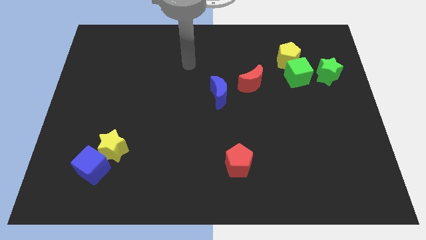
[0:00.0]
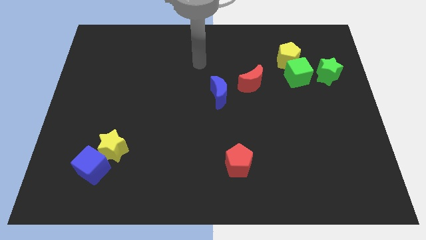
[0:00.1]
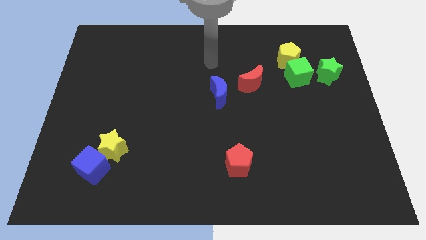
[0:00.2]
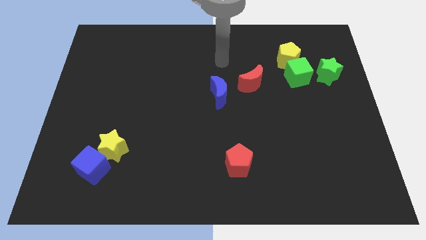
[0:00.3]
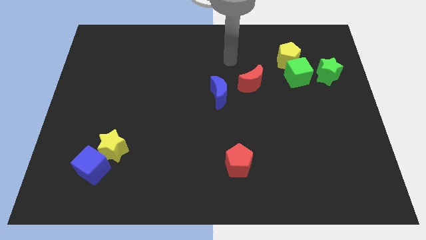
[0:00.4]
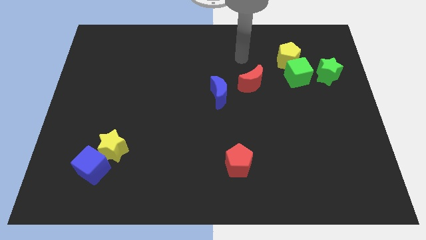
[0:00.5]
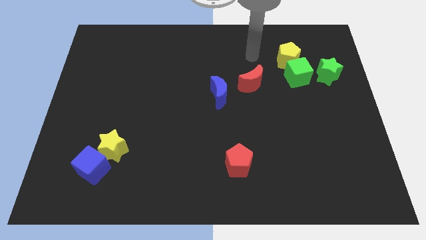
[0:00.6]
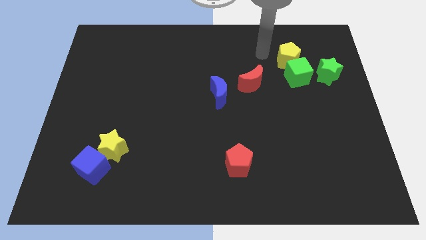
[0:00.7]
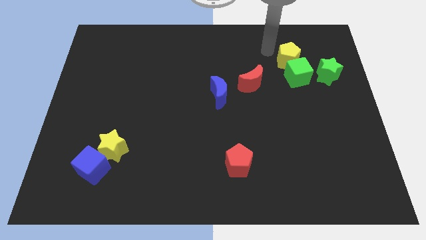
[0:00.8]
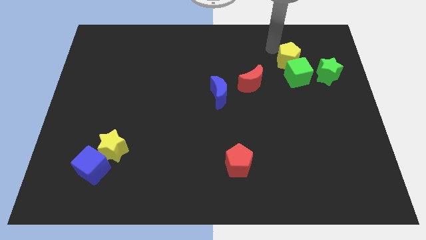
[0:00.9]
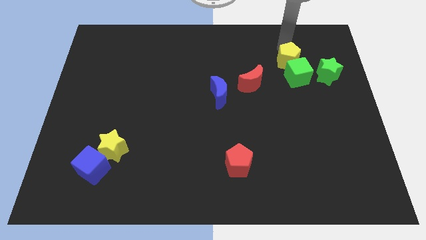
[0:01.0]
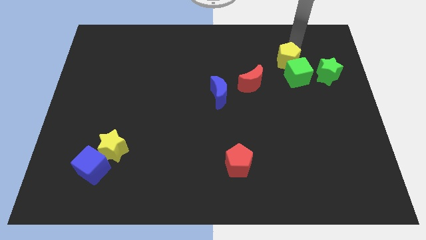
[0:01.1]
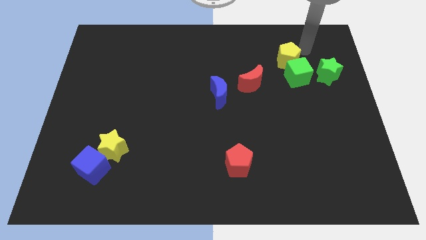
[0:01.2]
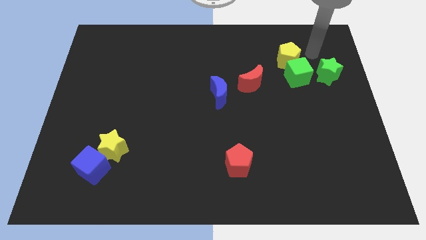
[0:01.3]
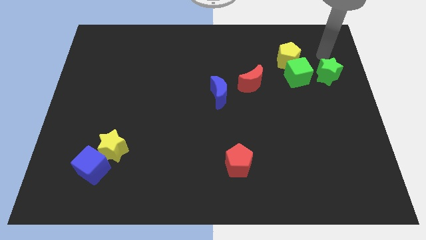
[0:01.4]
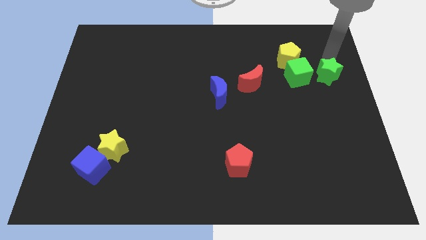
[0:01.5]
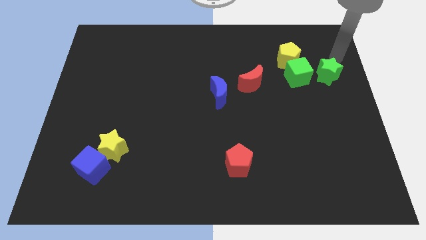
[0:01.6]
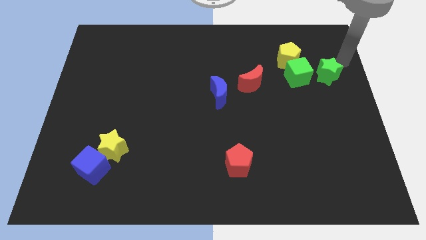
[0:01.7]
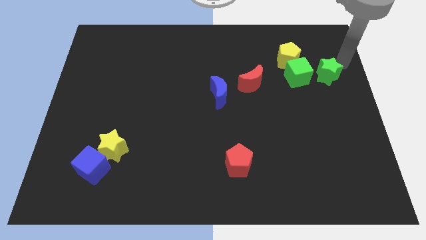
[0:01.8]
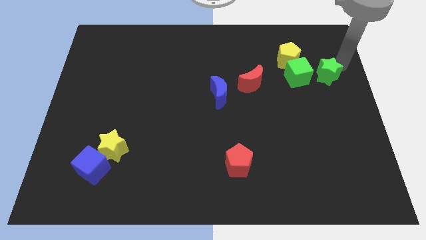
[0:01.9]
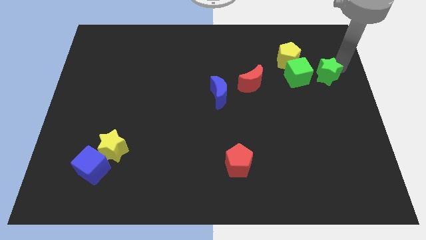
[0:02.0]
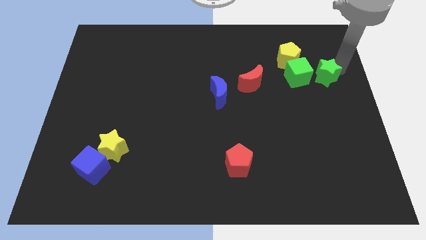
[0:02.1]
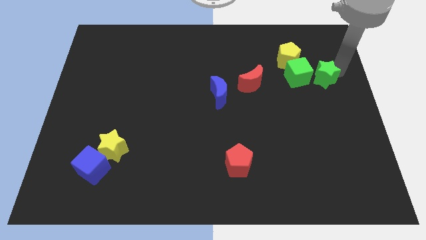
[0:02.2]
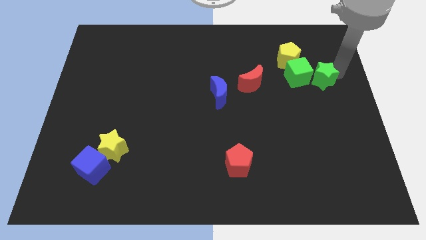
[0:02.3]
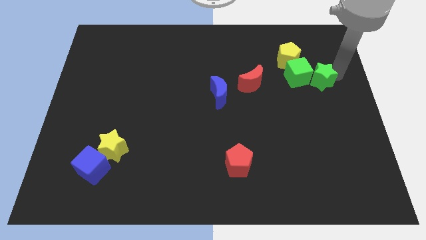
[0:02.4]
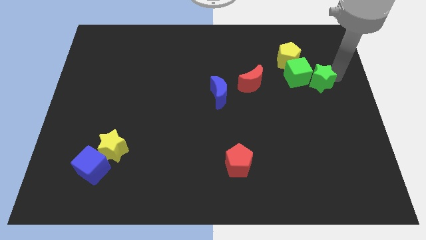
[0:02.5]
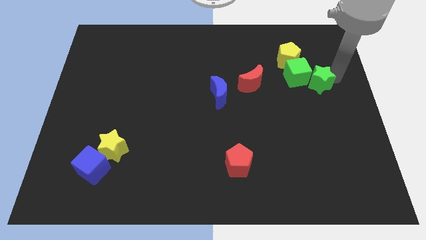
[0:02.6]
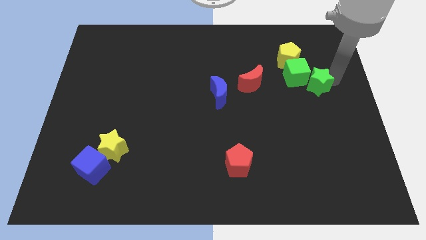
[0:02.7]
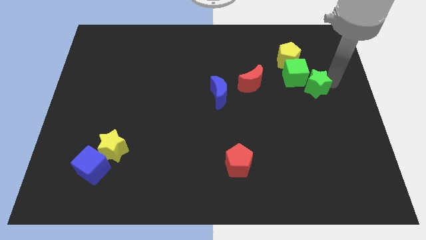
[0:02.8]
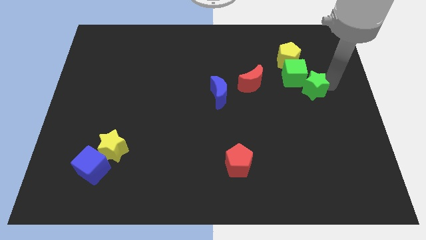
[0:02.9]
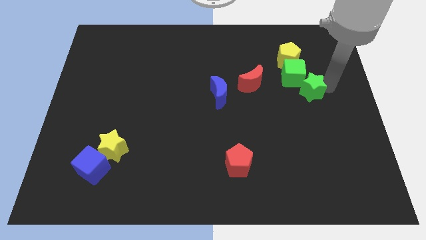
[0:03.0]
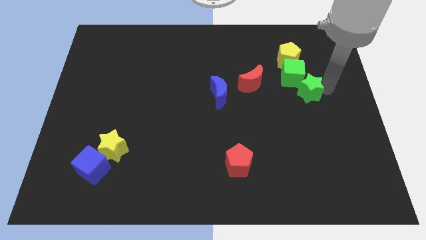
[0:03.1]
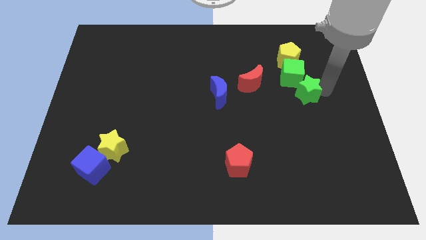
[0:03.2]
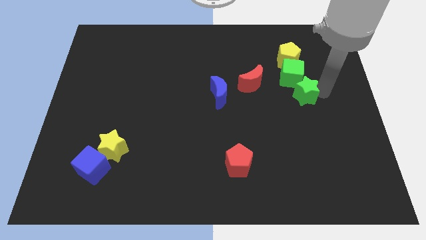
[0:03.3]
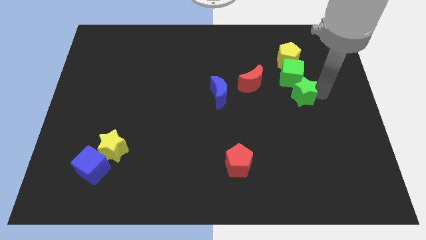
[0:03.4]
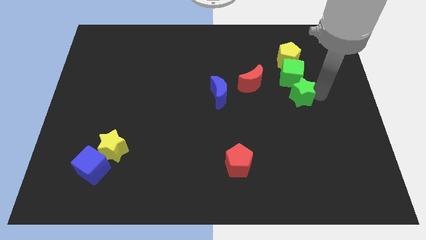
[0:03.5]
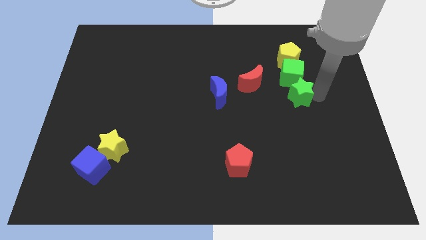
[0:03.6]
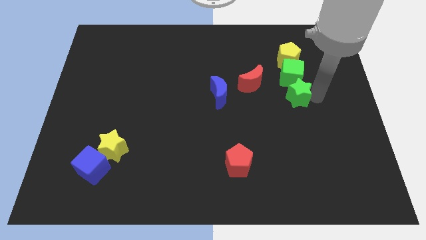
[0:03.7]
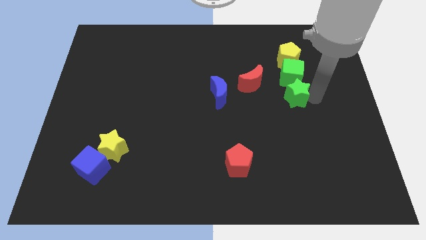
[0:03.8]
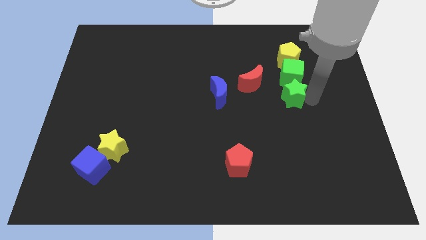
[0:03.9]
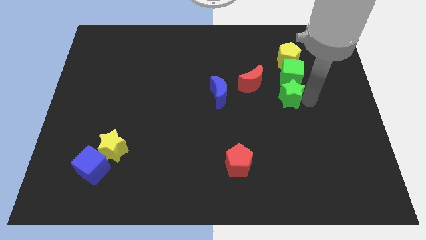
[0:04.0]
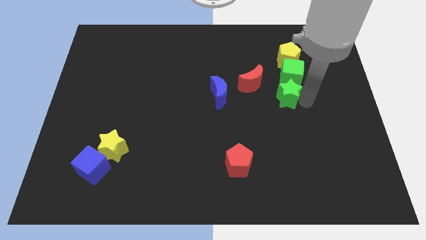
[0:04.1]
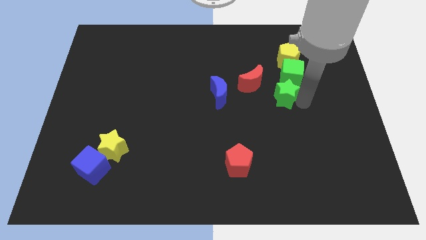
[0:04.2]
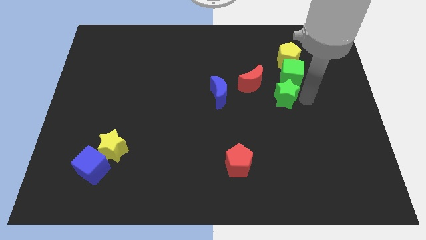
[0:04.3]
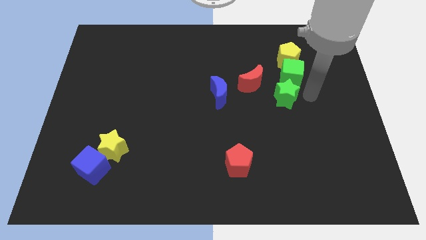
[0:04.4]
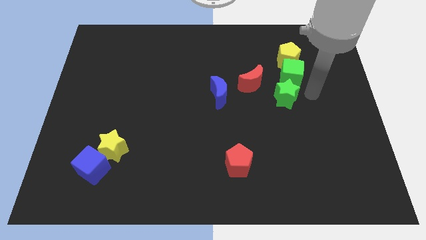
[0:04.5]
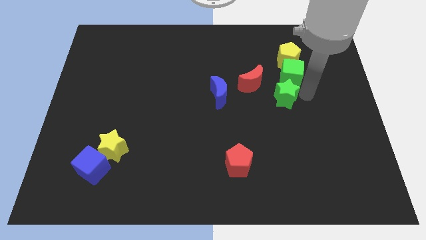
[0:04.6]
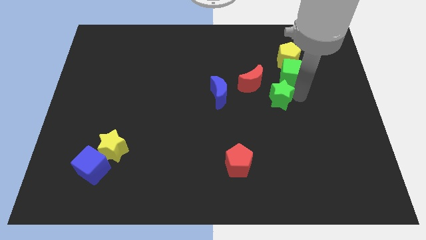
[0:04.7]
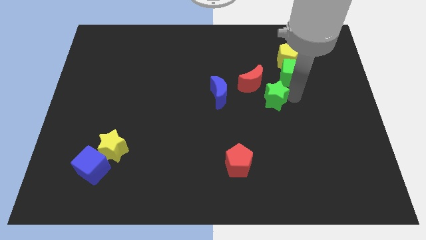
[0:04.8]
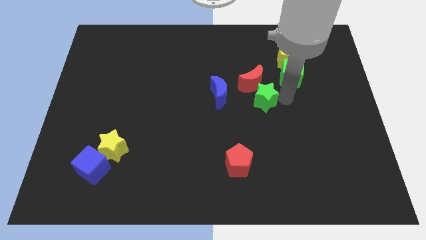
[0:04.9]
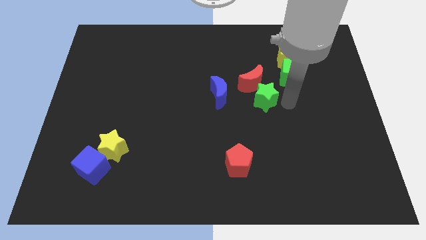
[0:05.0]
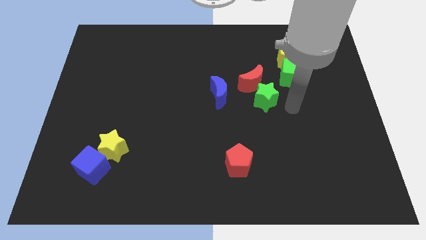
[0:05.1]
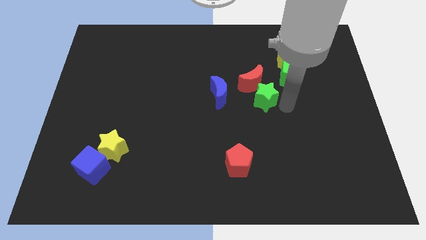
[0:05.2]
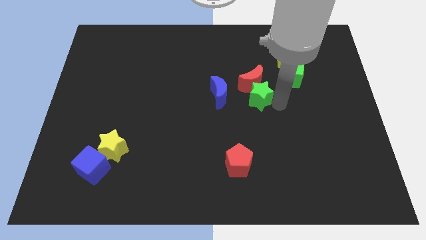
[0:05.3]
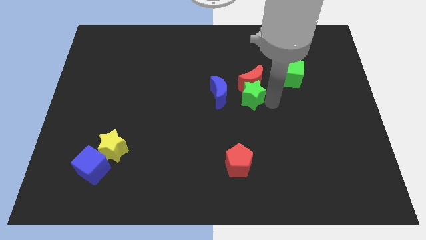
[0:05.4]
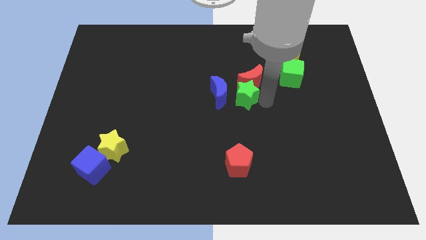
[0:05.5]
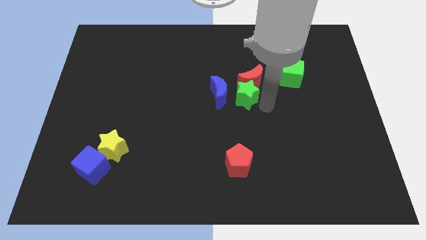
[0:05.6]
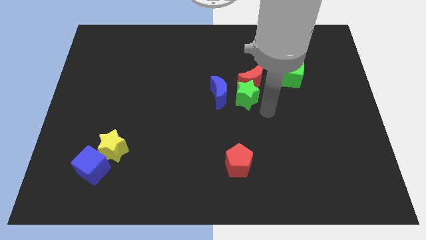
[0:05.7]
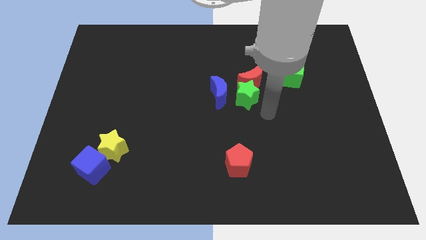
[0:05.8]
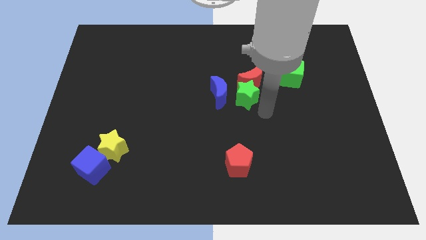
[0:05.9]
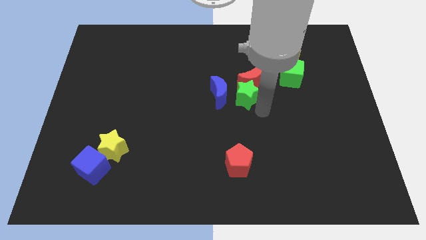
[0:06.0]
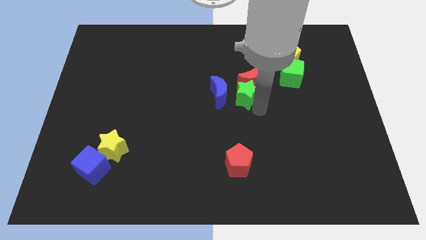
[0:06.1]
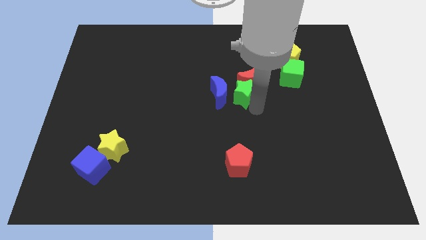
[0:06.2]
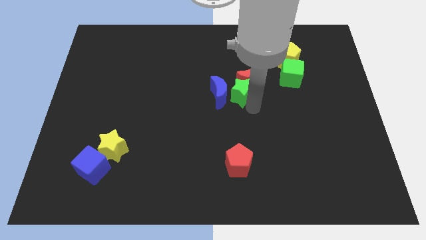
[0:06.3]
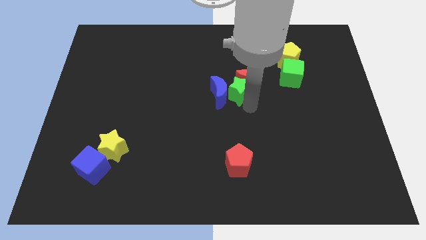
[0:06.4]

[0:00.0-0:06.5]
slide the green star left of the red moon

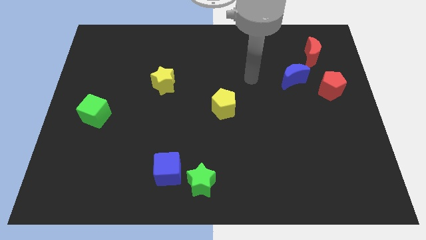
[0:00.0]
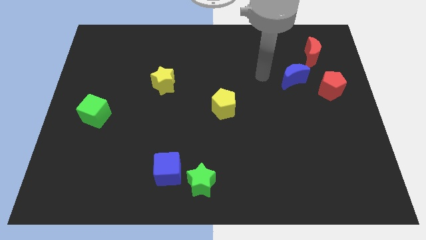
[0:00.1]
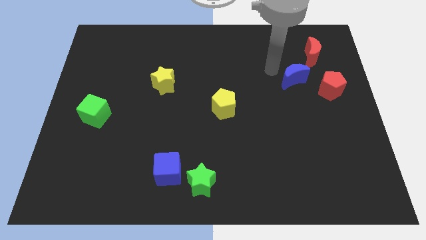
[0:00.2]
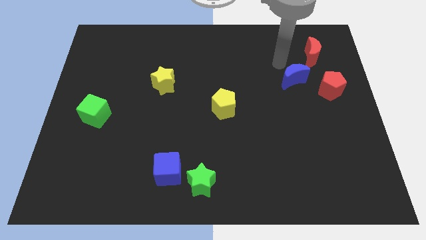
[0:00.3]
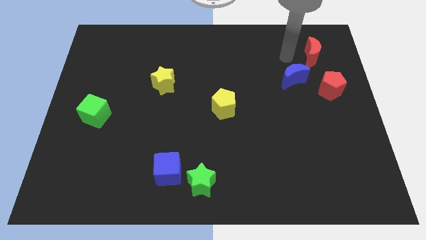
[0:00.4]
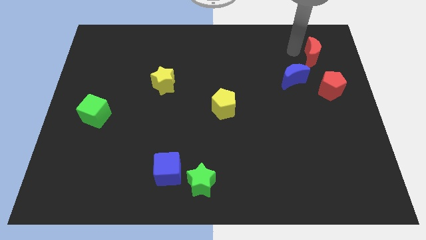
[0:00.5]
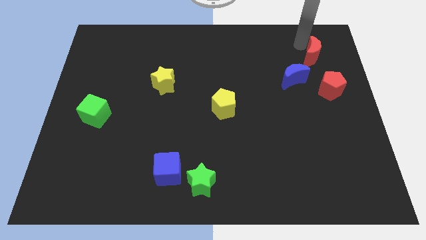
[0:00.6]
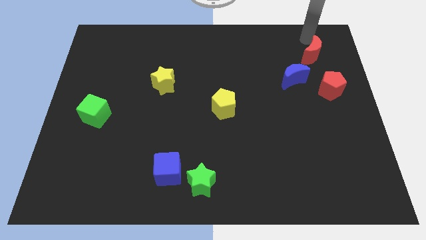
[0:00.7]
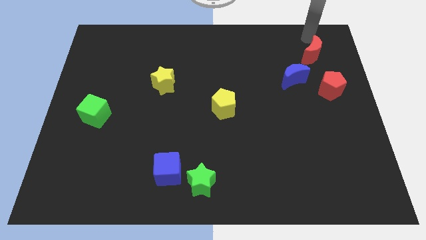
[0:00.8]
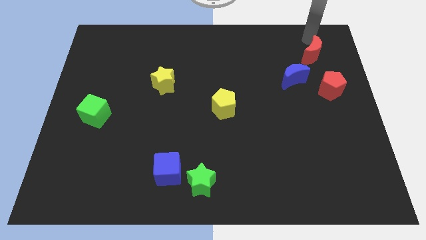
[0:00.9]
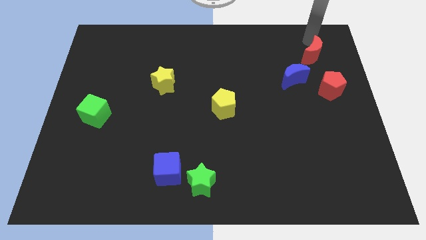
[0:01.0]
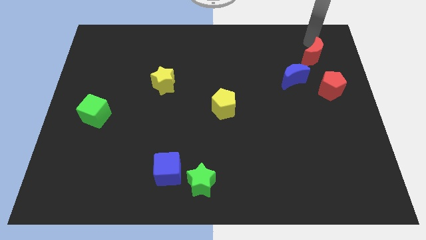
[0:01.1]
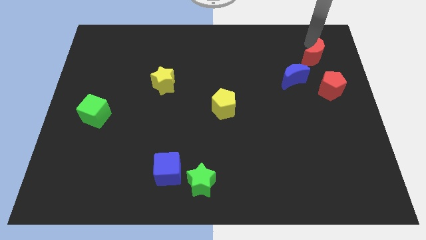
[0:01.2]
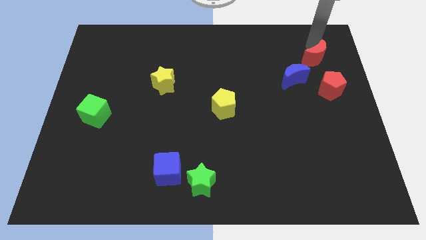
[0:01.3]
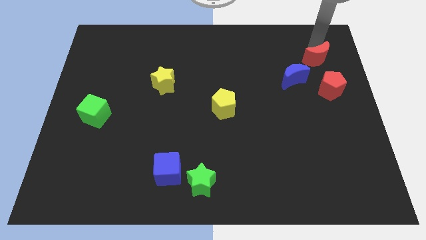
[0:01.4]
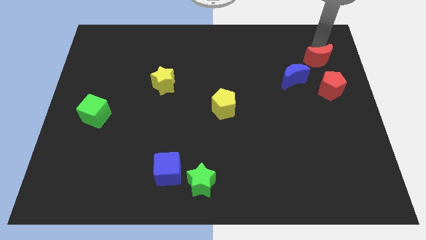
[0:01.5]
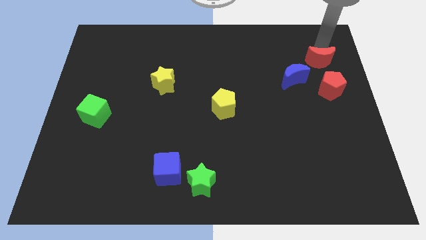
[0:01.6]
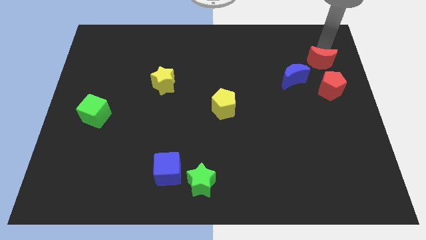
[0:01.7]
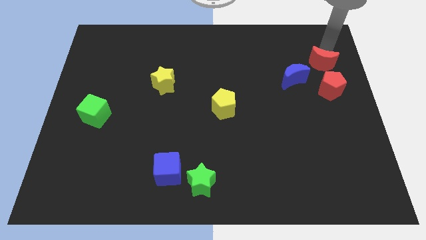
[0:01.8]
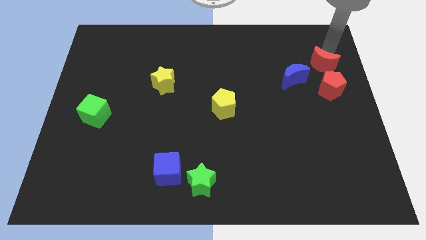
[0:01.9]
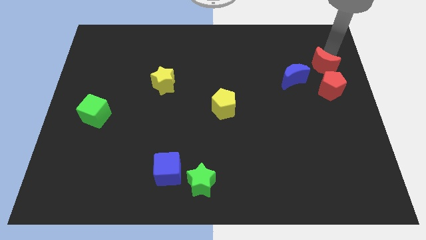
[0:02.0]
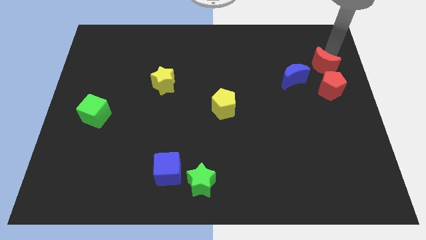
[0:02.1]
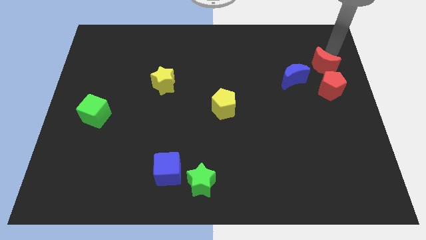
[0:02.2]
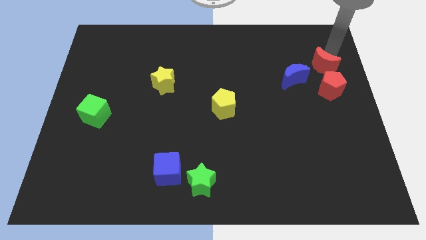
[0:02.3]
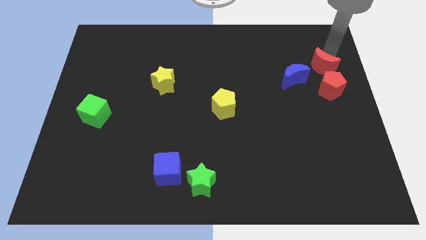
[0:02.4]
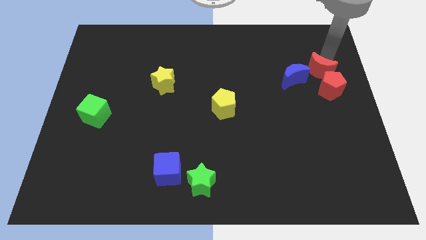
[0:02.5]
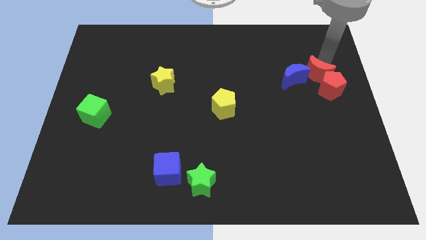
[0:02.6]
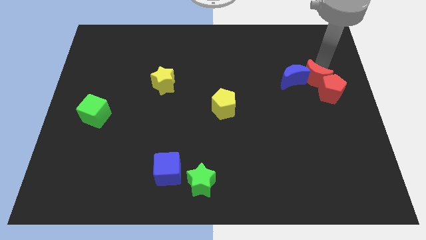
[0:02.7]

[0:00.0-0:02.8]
push the red moon to the bottom right side of the blue moon
